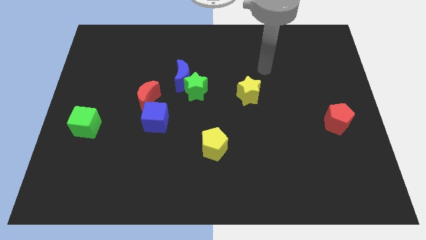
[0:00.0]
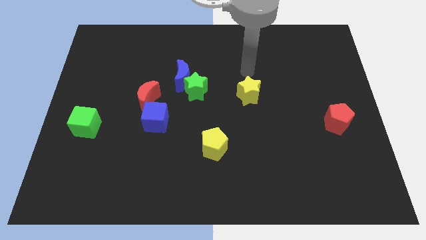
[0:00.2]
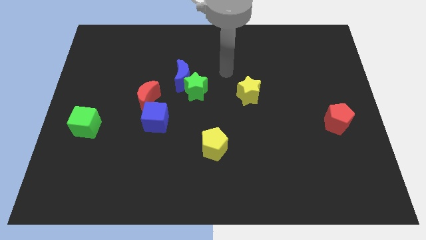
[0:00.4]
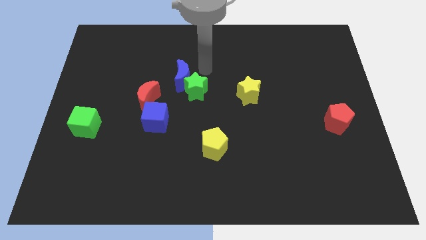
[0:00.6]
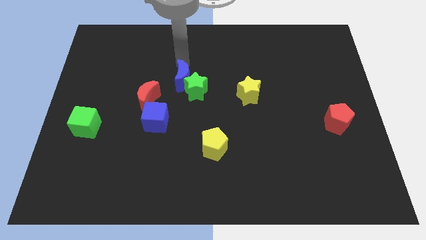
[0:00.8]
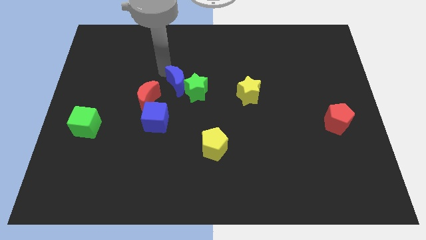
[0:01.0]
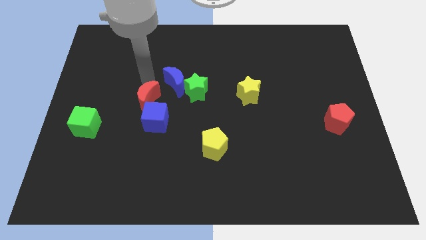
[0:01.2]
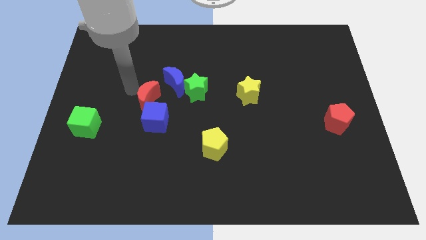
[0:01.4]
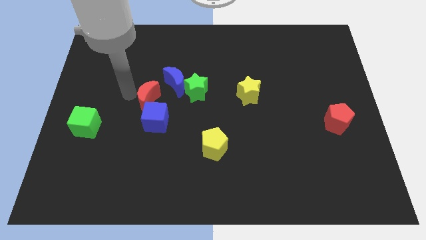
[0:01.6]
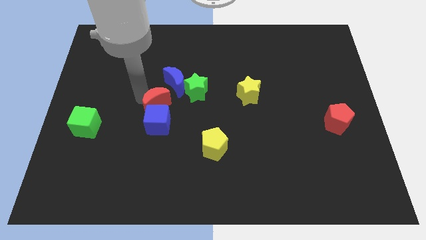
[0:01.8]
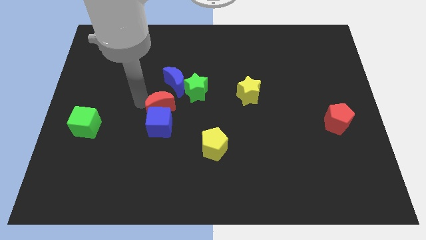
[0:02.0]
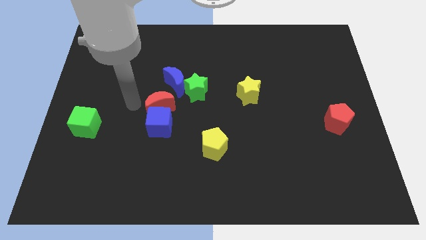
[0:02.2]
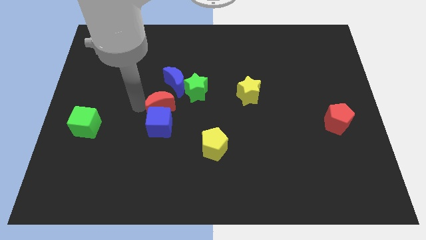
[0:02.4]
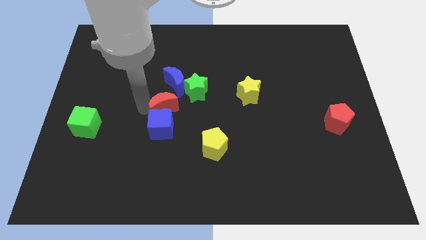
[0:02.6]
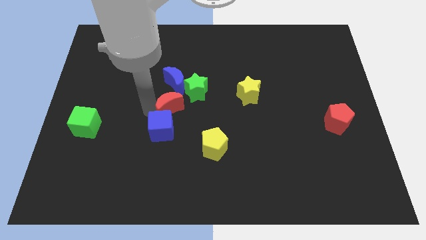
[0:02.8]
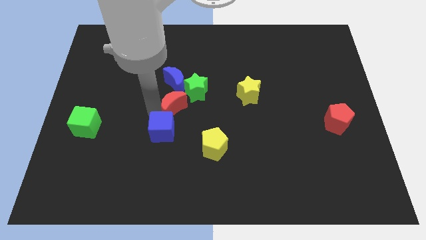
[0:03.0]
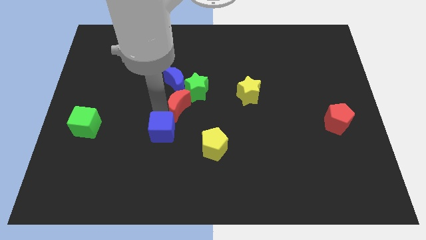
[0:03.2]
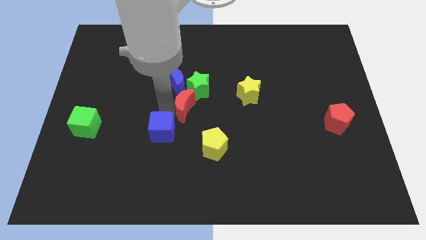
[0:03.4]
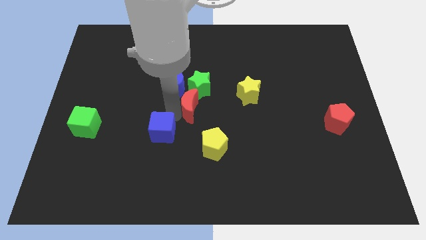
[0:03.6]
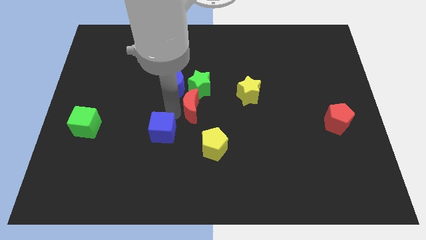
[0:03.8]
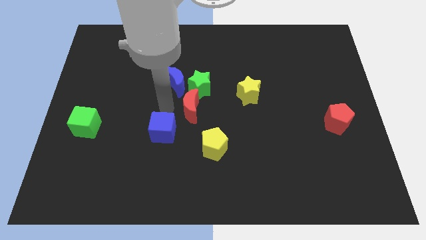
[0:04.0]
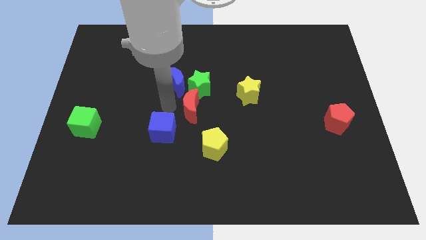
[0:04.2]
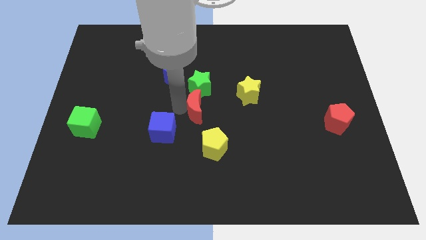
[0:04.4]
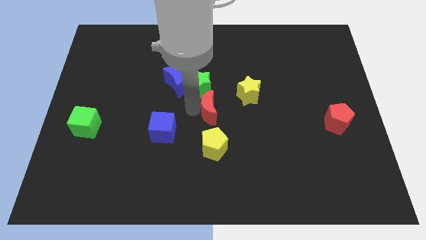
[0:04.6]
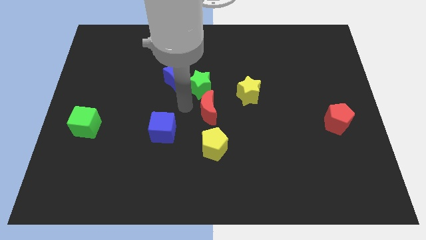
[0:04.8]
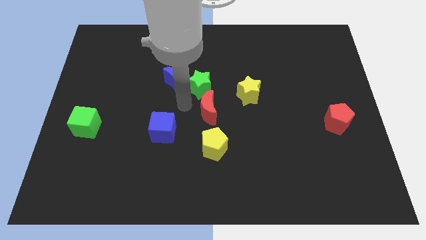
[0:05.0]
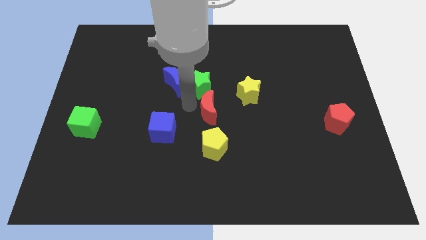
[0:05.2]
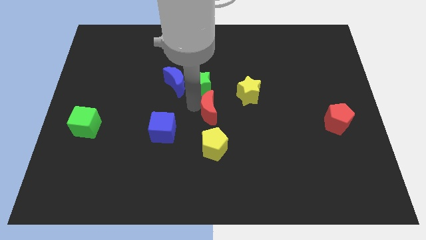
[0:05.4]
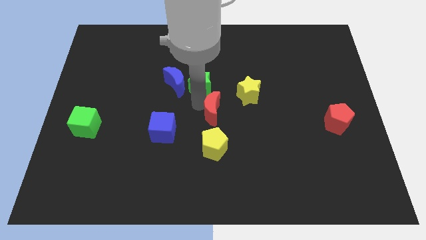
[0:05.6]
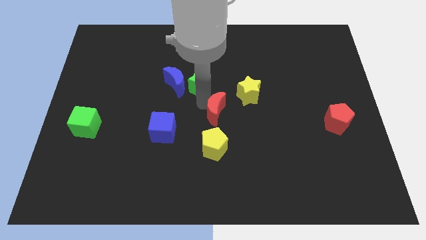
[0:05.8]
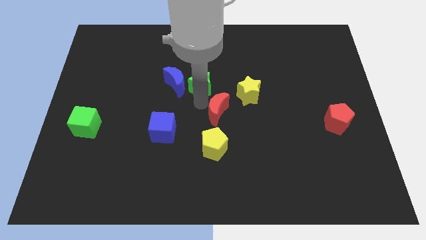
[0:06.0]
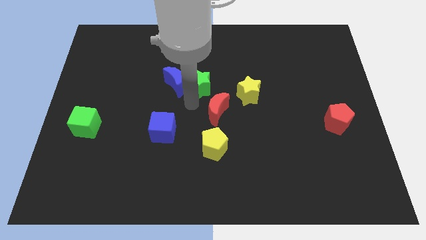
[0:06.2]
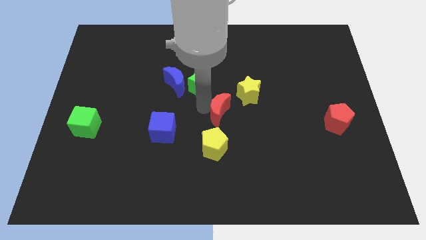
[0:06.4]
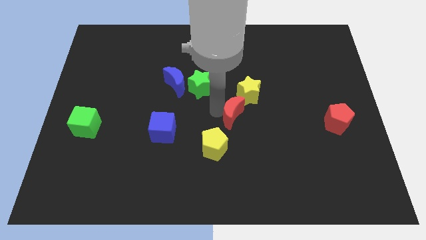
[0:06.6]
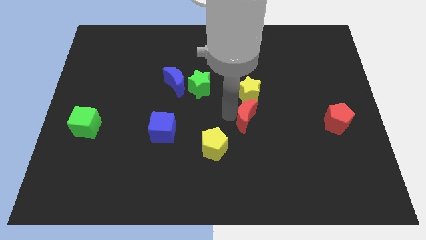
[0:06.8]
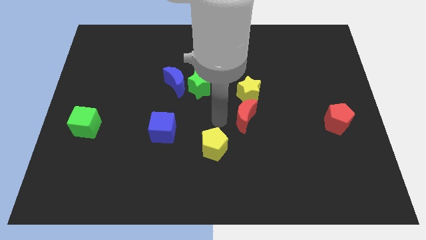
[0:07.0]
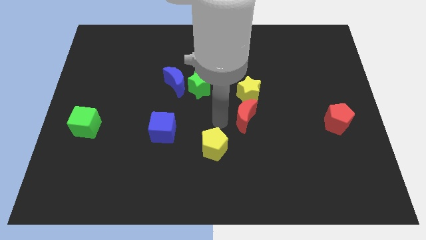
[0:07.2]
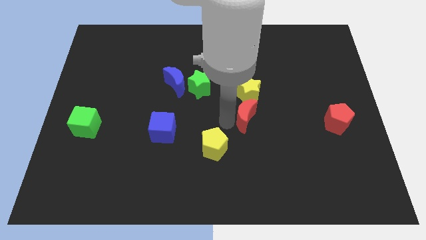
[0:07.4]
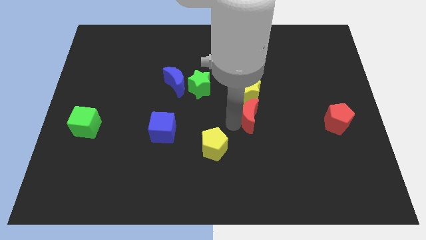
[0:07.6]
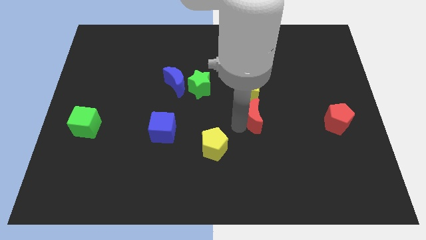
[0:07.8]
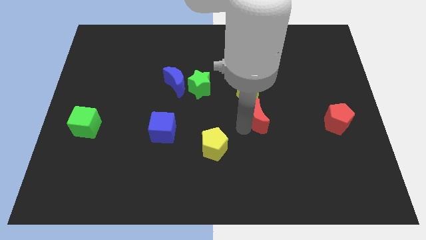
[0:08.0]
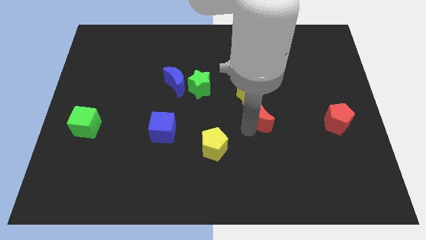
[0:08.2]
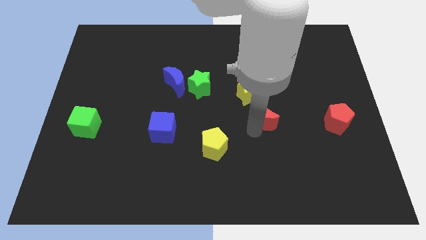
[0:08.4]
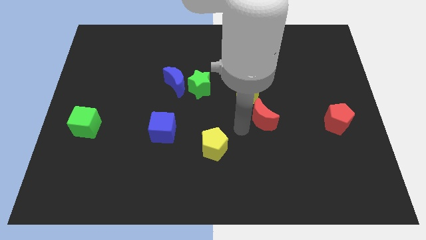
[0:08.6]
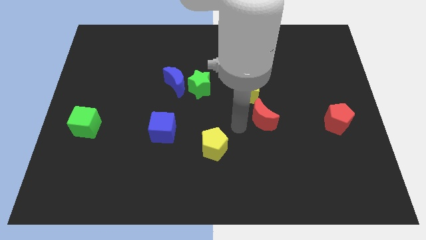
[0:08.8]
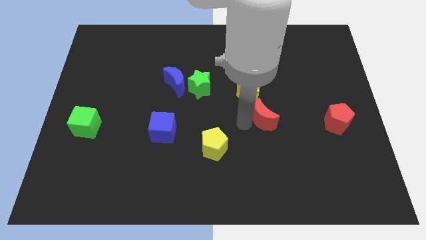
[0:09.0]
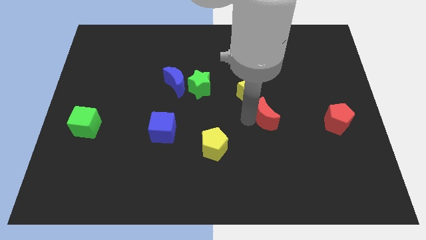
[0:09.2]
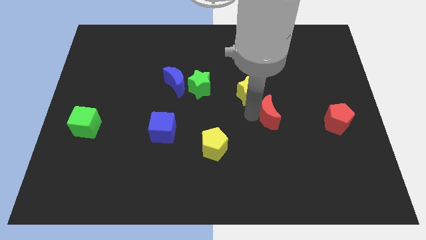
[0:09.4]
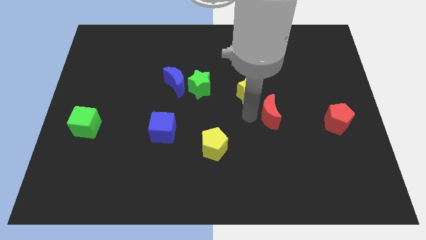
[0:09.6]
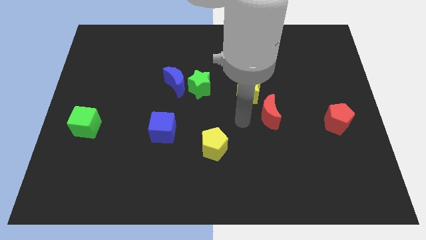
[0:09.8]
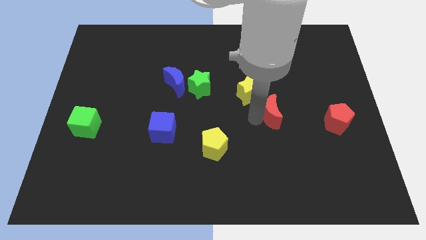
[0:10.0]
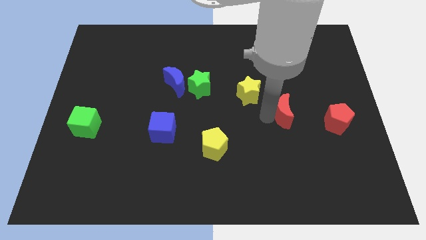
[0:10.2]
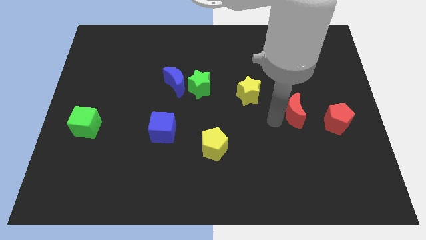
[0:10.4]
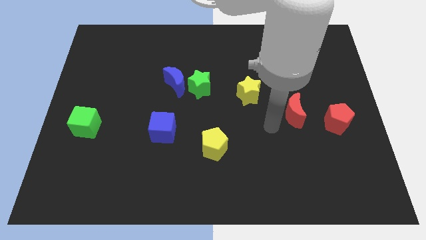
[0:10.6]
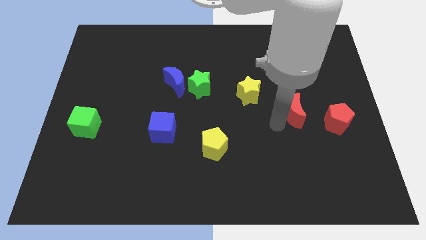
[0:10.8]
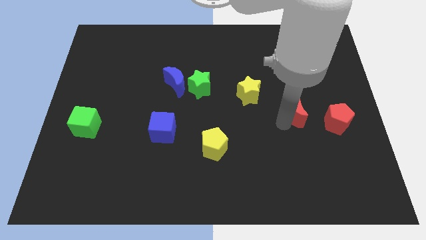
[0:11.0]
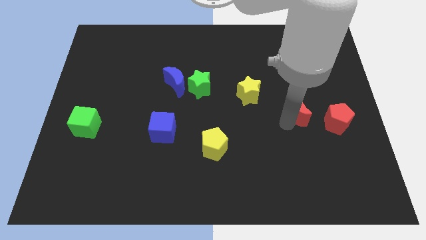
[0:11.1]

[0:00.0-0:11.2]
slide the red moon diagonally up and to the left of the red pentagon

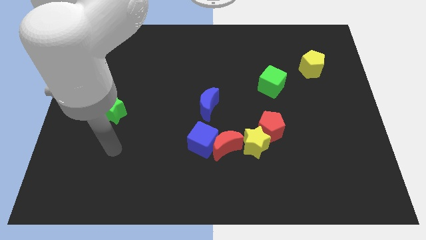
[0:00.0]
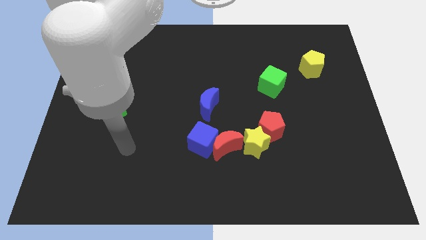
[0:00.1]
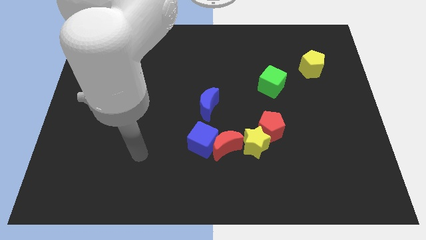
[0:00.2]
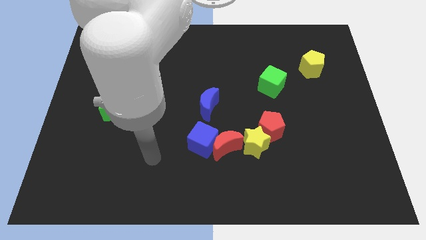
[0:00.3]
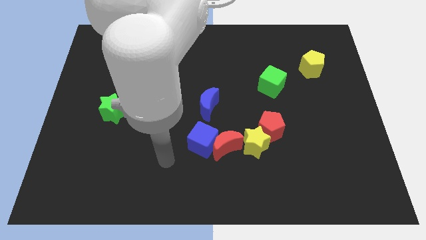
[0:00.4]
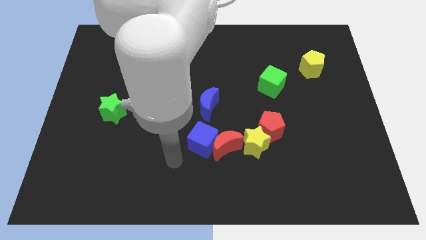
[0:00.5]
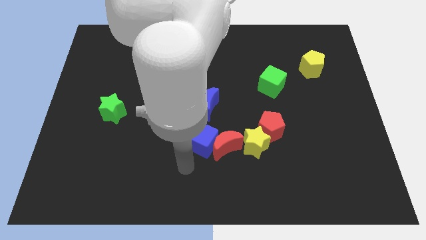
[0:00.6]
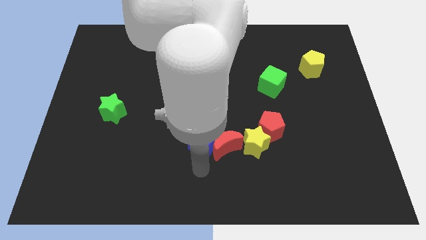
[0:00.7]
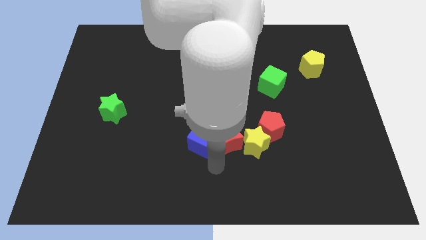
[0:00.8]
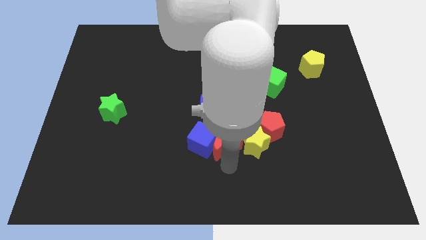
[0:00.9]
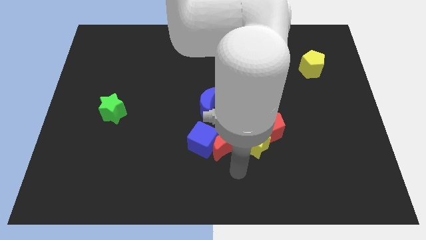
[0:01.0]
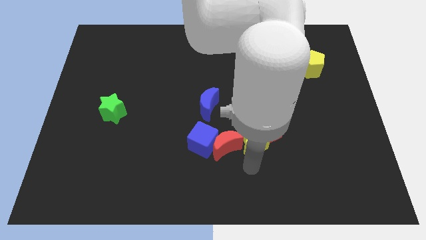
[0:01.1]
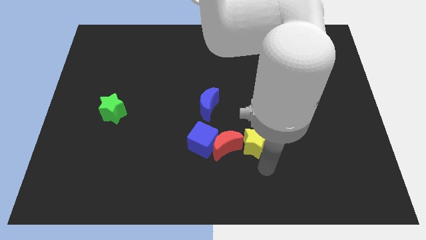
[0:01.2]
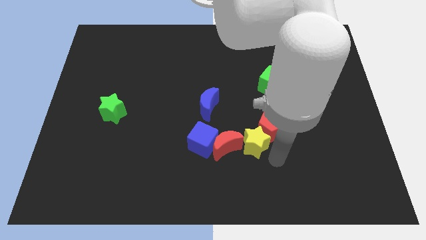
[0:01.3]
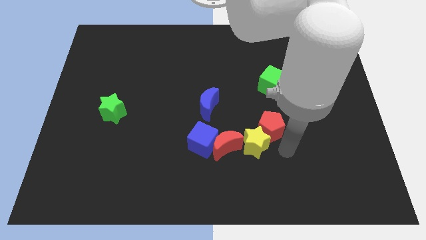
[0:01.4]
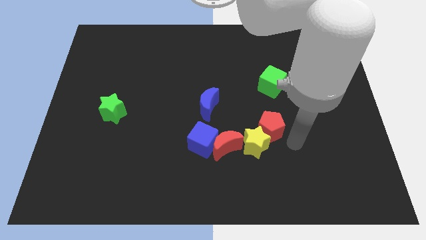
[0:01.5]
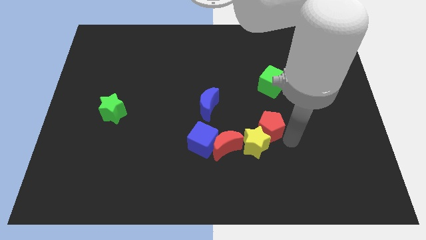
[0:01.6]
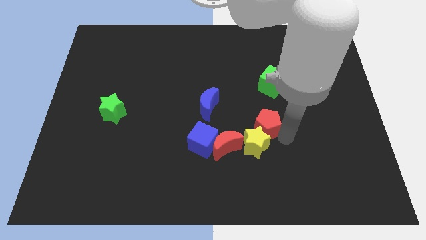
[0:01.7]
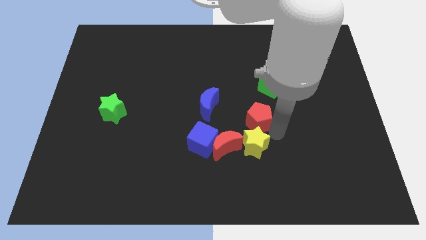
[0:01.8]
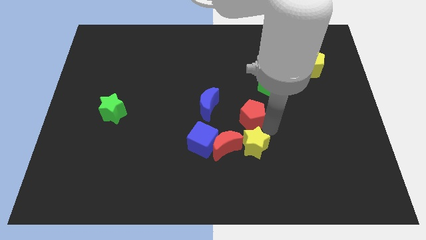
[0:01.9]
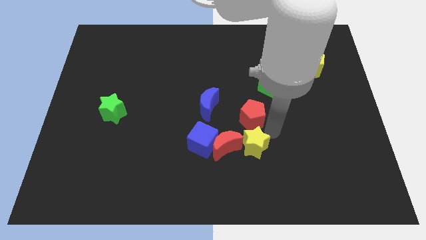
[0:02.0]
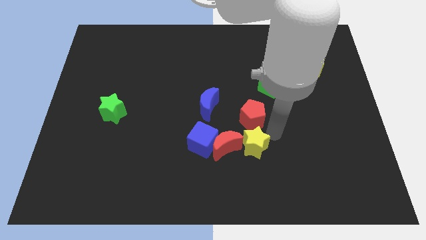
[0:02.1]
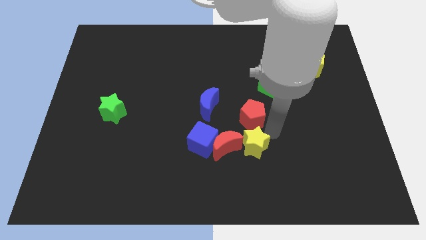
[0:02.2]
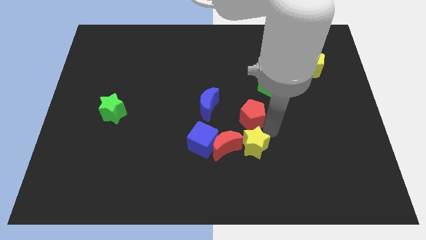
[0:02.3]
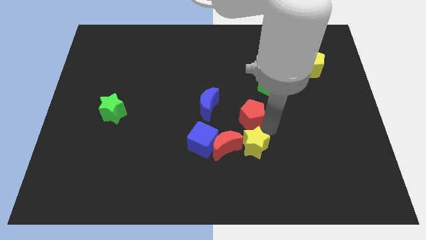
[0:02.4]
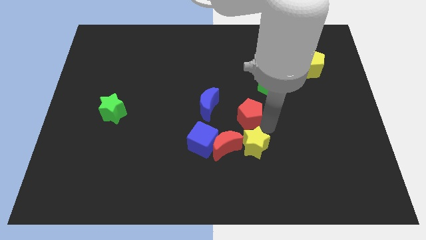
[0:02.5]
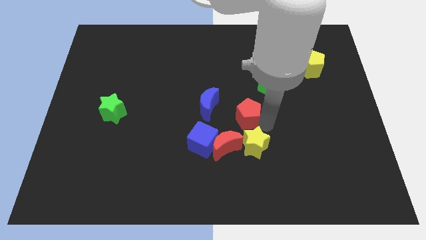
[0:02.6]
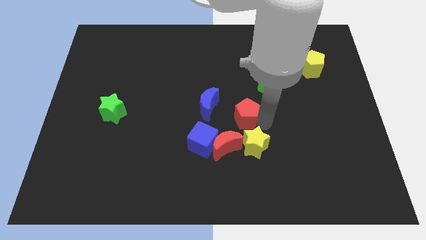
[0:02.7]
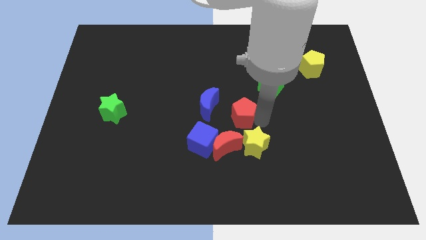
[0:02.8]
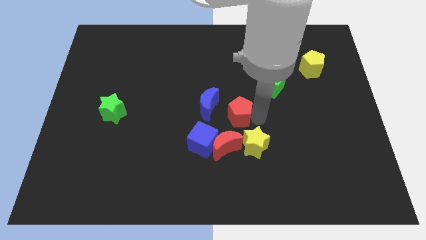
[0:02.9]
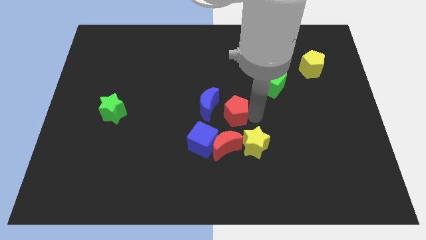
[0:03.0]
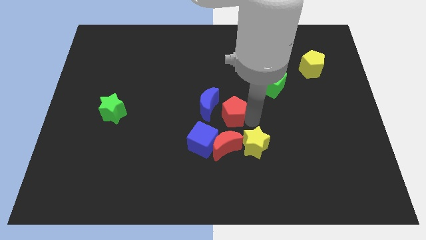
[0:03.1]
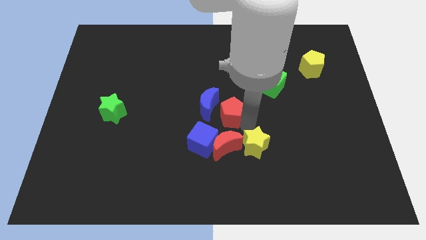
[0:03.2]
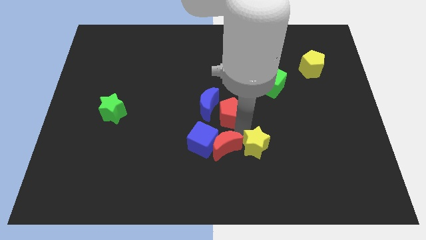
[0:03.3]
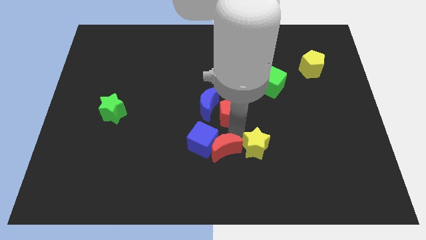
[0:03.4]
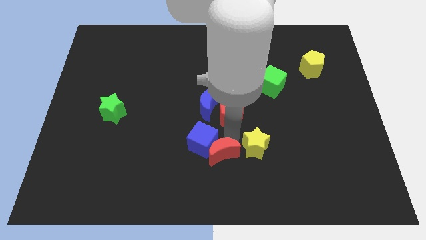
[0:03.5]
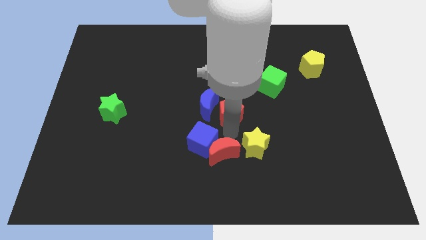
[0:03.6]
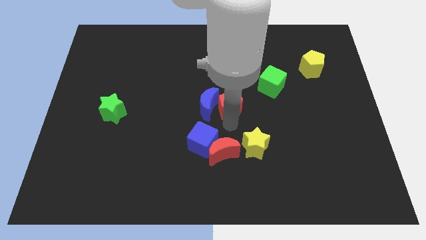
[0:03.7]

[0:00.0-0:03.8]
push the red pentagon diagonally up and to the right of the blue moon
